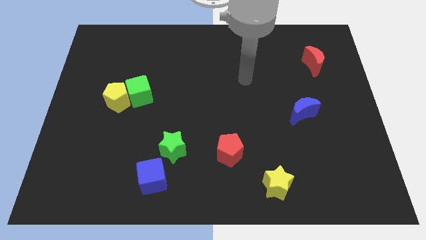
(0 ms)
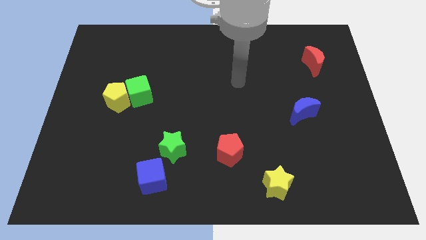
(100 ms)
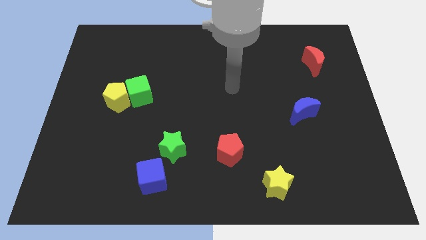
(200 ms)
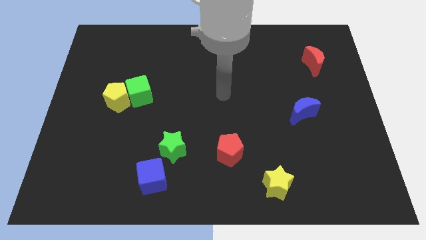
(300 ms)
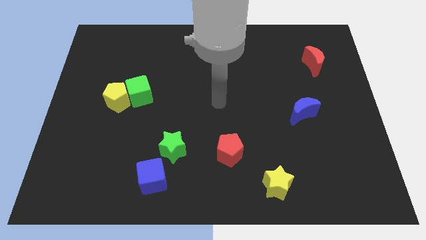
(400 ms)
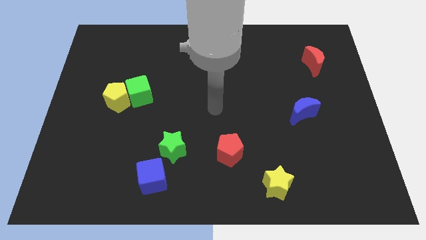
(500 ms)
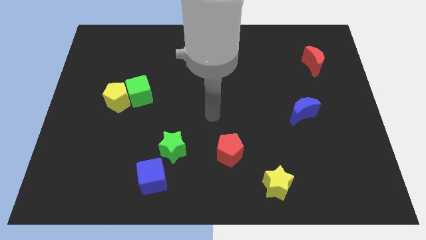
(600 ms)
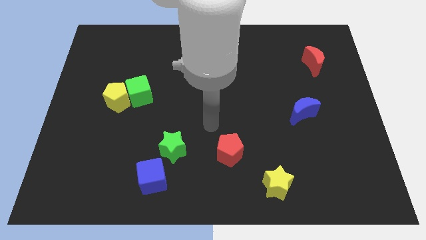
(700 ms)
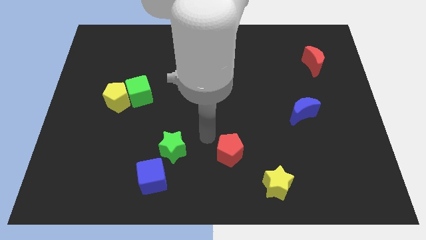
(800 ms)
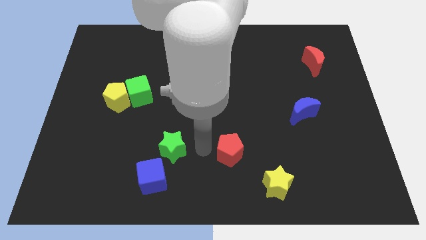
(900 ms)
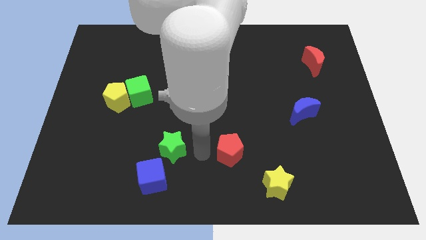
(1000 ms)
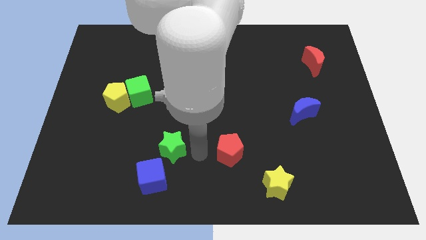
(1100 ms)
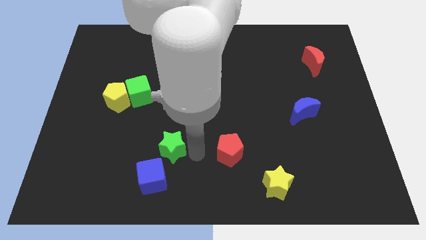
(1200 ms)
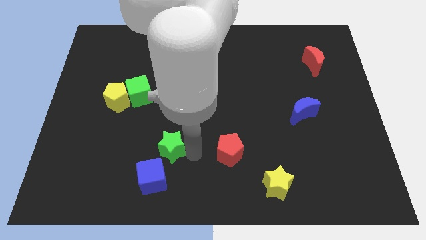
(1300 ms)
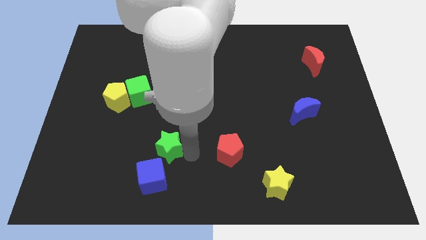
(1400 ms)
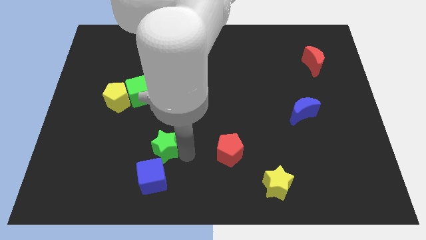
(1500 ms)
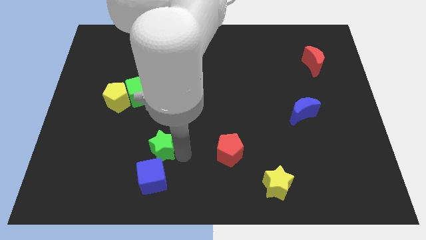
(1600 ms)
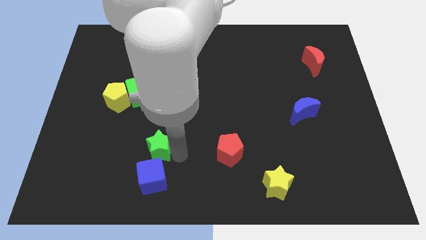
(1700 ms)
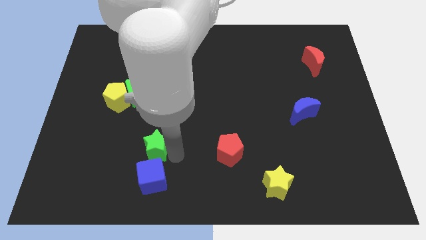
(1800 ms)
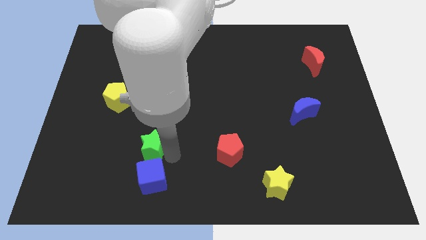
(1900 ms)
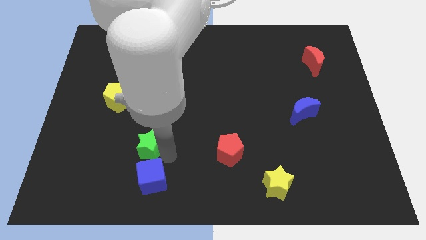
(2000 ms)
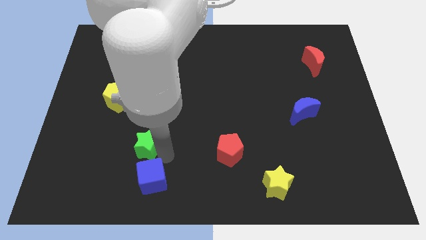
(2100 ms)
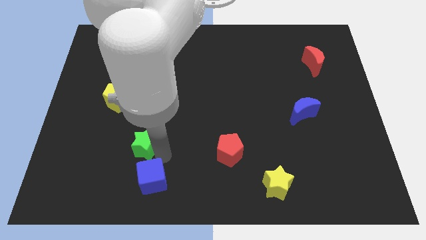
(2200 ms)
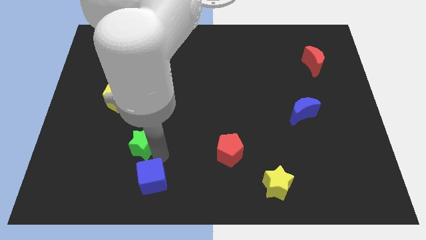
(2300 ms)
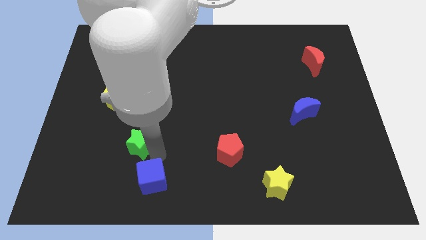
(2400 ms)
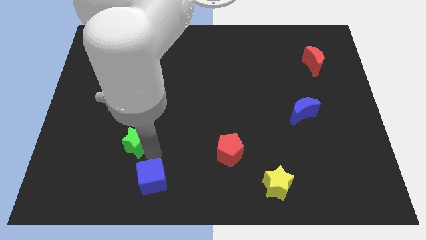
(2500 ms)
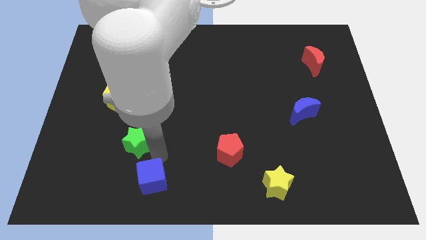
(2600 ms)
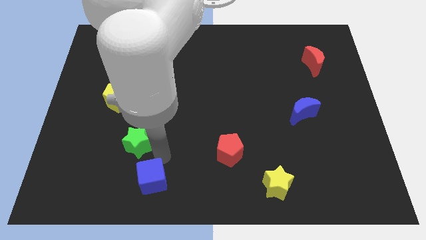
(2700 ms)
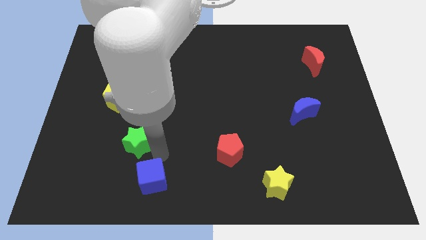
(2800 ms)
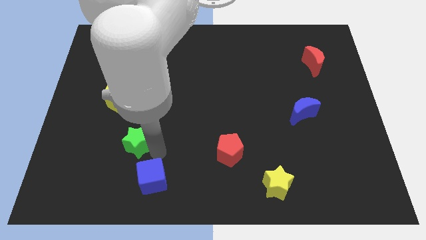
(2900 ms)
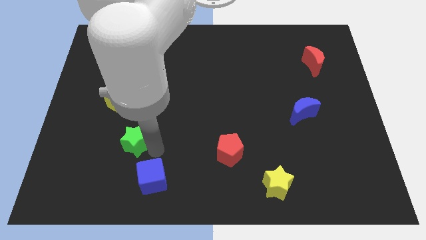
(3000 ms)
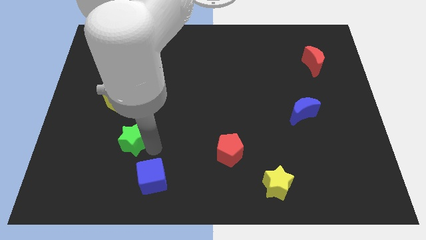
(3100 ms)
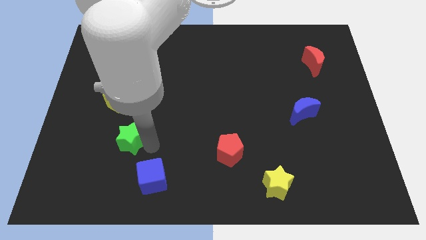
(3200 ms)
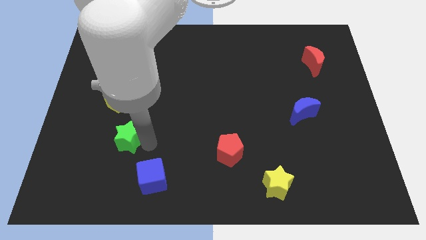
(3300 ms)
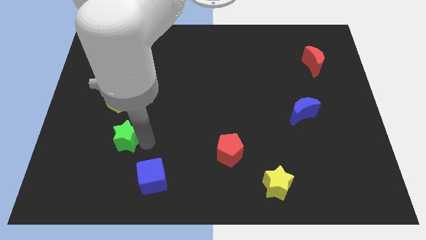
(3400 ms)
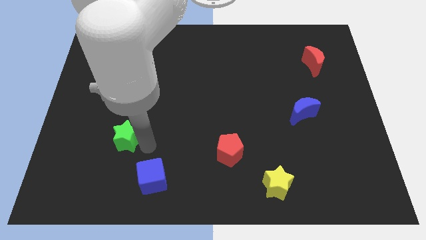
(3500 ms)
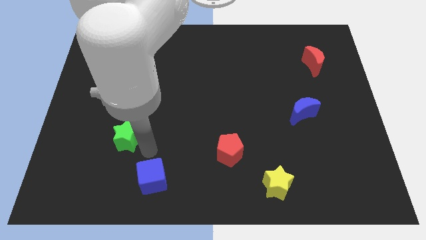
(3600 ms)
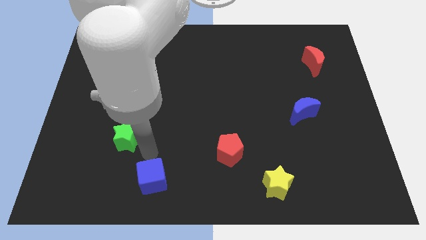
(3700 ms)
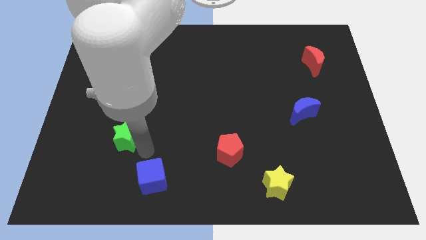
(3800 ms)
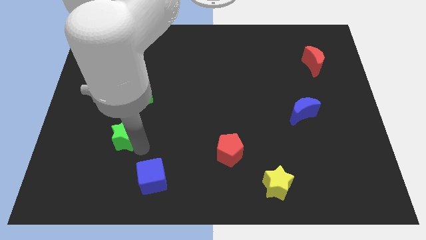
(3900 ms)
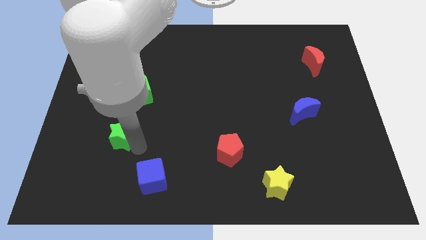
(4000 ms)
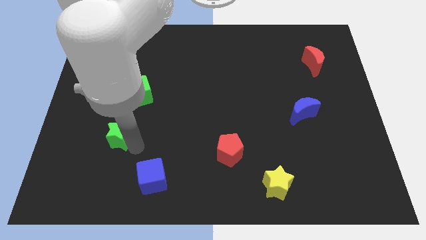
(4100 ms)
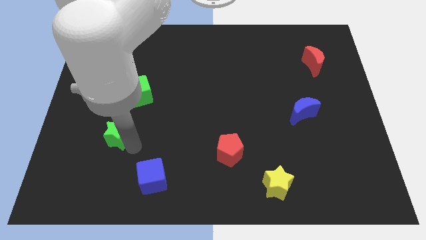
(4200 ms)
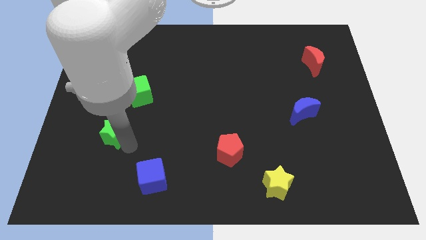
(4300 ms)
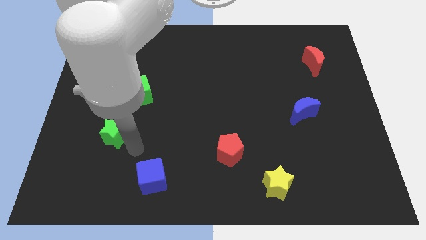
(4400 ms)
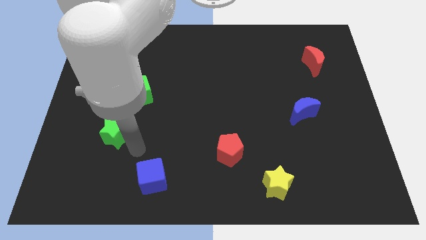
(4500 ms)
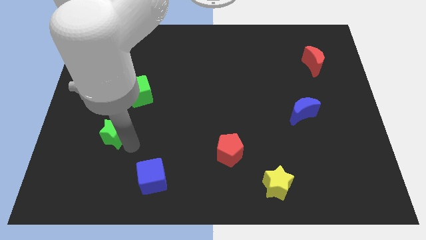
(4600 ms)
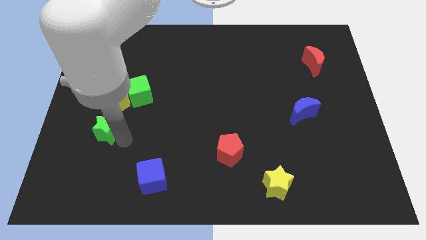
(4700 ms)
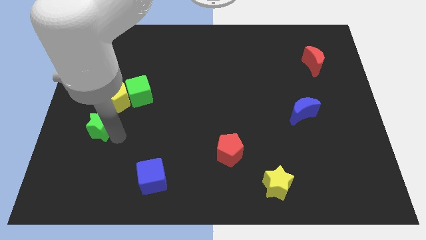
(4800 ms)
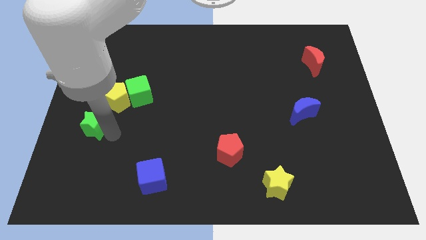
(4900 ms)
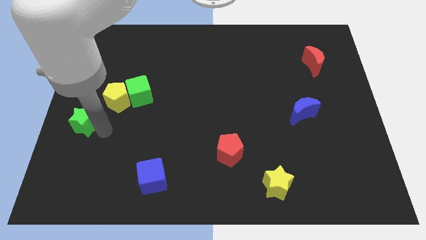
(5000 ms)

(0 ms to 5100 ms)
slide the green star to the center left

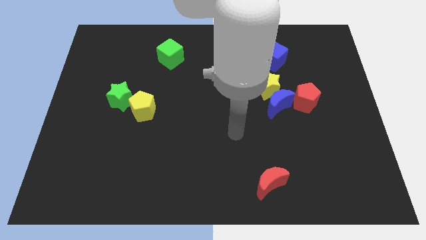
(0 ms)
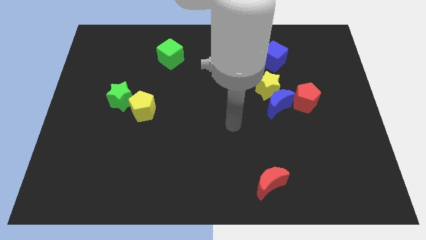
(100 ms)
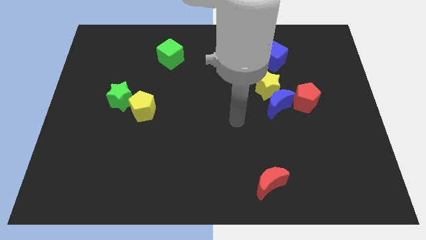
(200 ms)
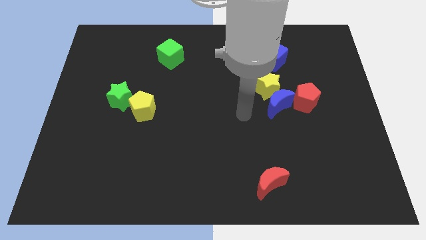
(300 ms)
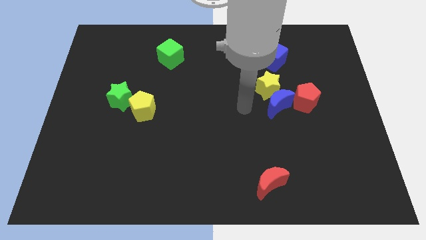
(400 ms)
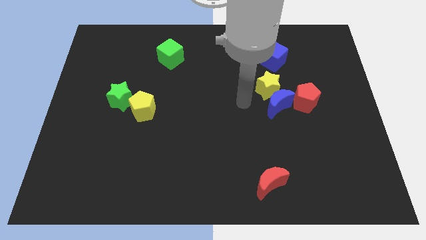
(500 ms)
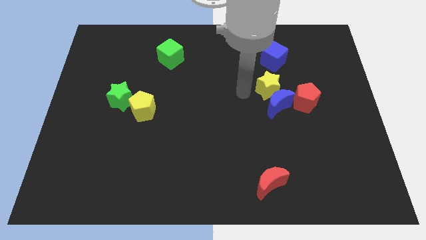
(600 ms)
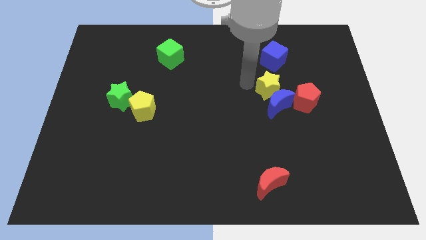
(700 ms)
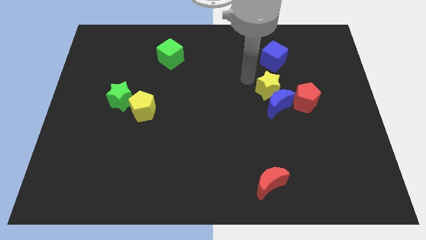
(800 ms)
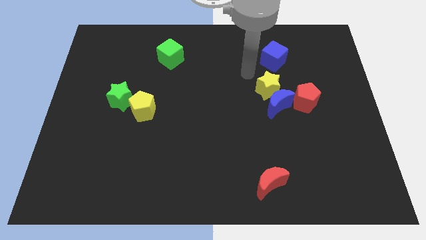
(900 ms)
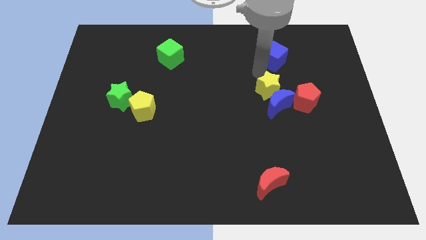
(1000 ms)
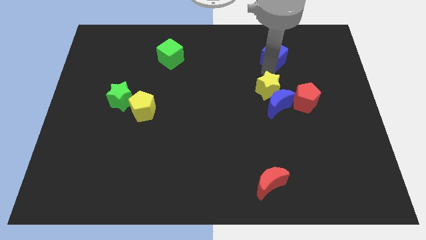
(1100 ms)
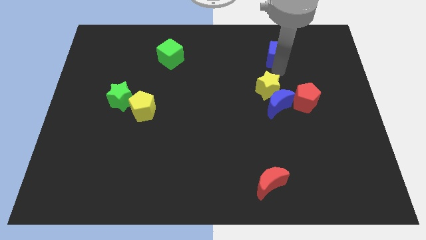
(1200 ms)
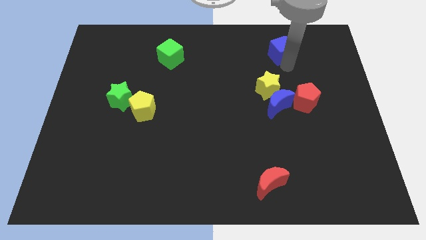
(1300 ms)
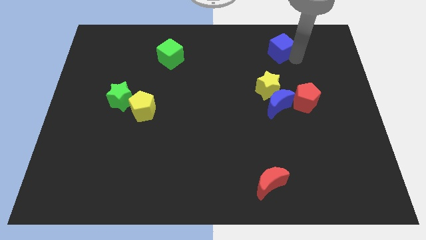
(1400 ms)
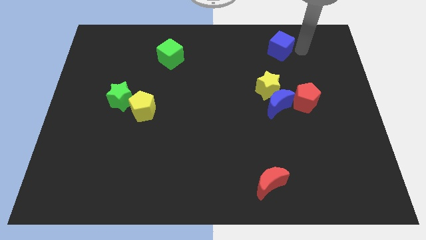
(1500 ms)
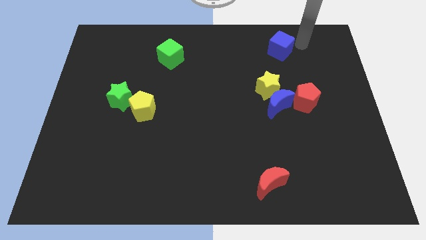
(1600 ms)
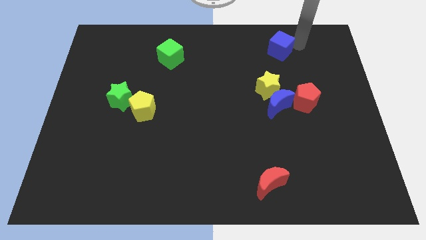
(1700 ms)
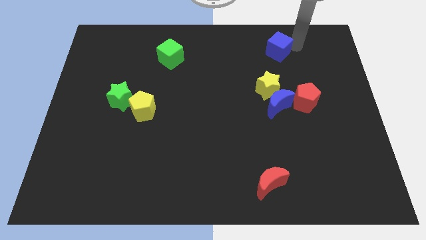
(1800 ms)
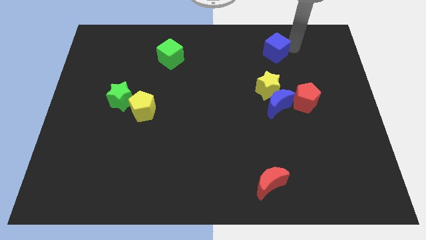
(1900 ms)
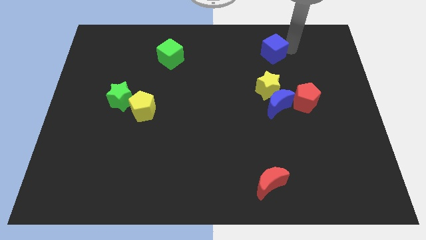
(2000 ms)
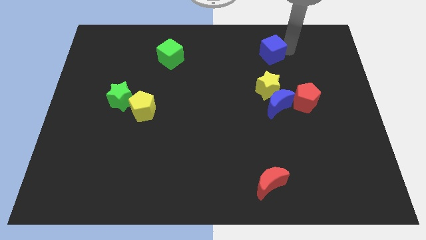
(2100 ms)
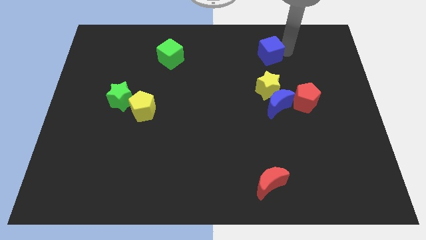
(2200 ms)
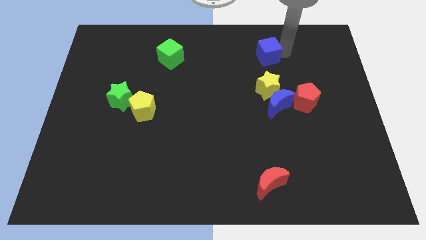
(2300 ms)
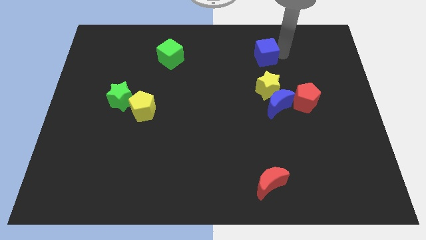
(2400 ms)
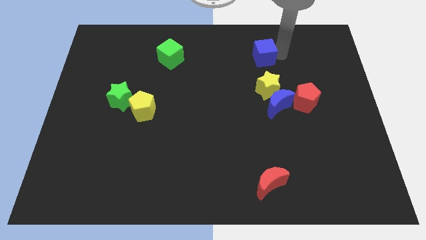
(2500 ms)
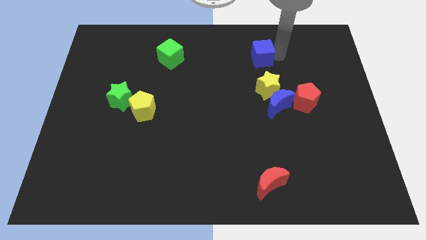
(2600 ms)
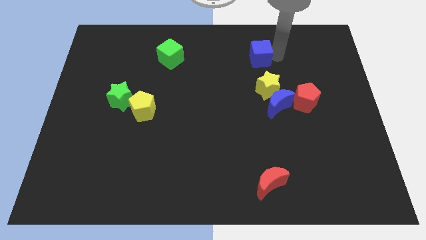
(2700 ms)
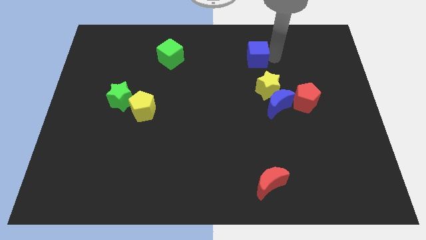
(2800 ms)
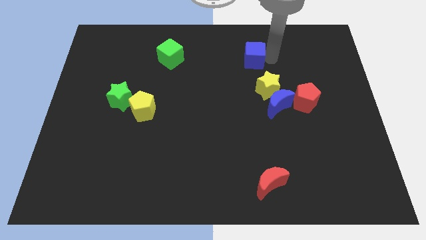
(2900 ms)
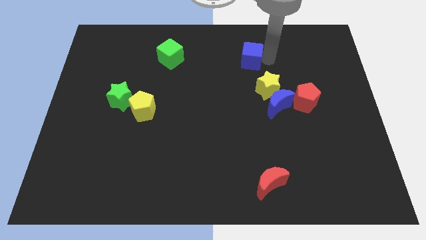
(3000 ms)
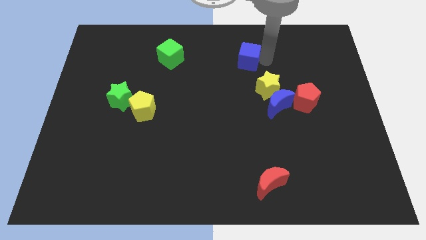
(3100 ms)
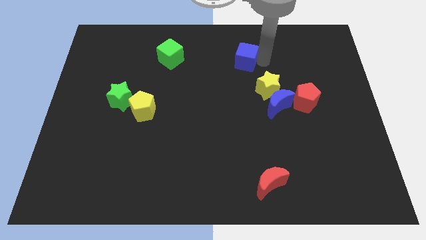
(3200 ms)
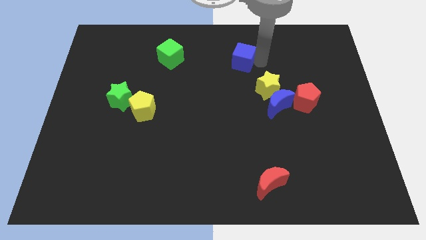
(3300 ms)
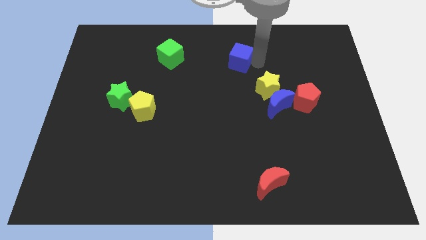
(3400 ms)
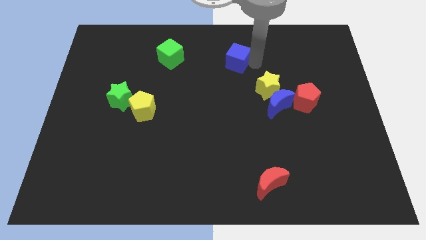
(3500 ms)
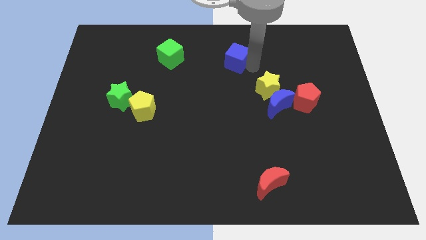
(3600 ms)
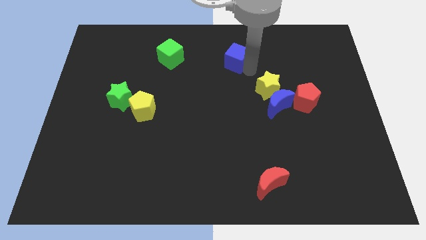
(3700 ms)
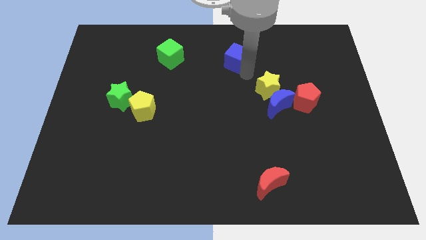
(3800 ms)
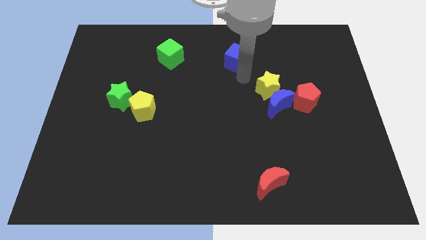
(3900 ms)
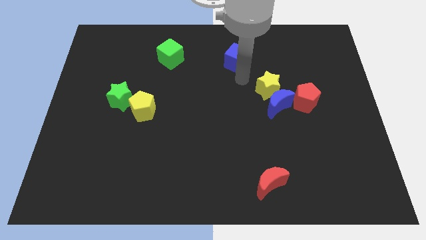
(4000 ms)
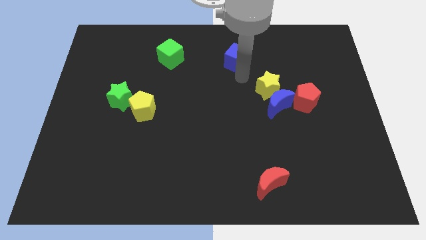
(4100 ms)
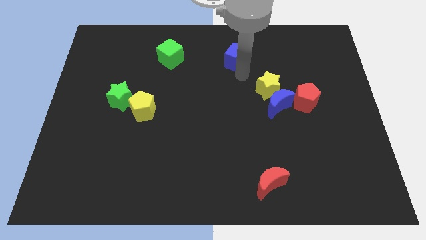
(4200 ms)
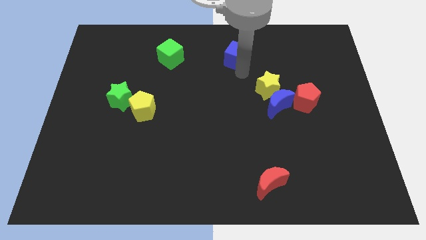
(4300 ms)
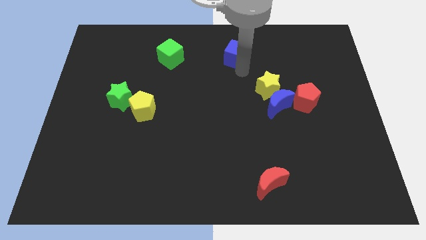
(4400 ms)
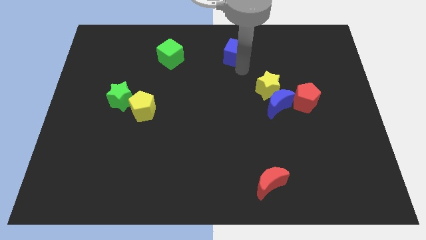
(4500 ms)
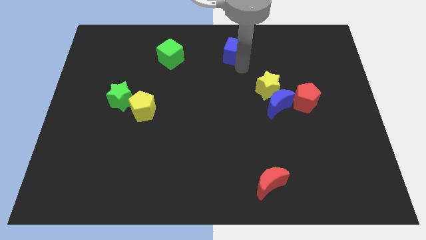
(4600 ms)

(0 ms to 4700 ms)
move the blue cube to the top
